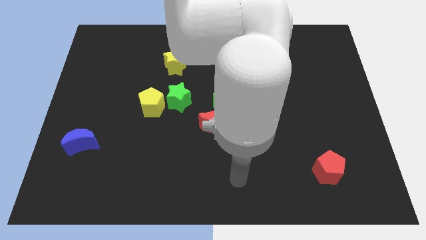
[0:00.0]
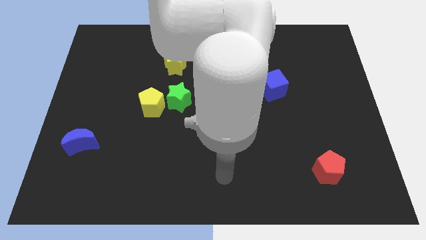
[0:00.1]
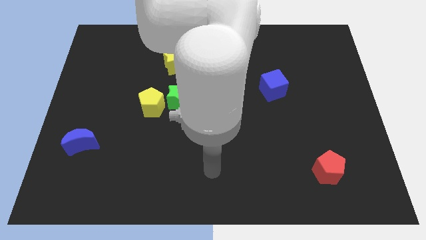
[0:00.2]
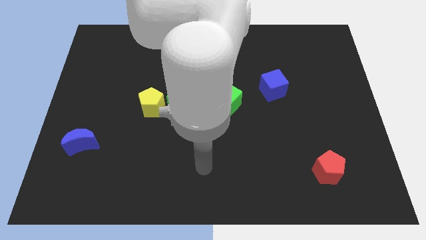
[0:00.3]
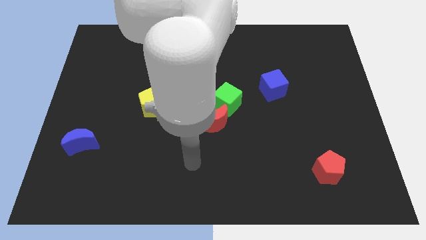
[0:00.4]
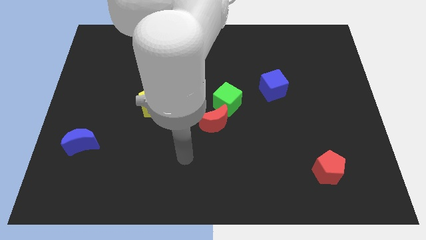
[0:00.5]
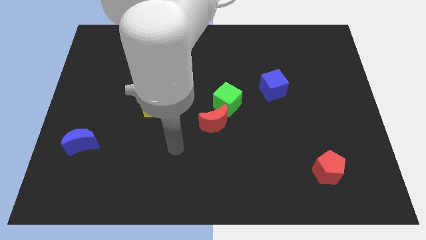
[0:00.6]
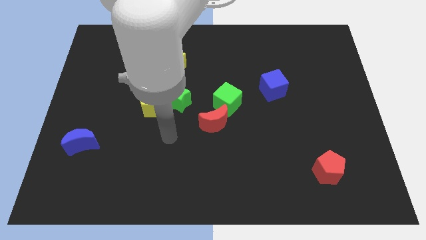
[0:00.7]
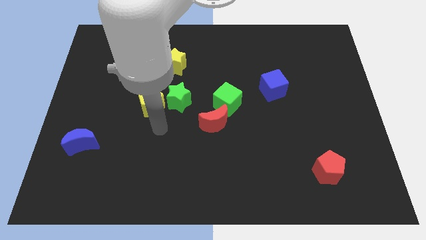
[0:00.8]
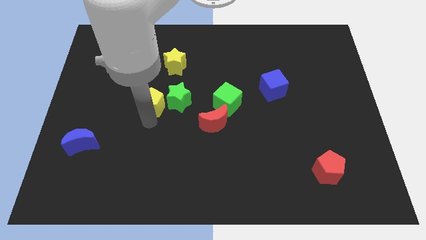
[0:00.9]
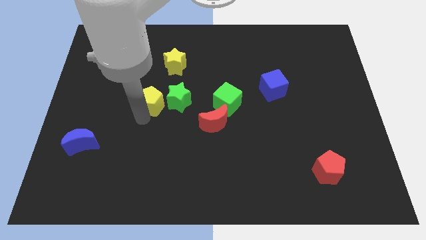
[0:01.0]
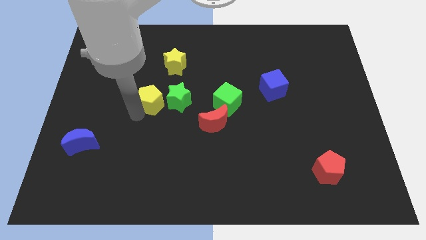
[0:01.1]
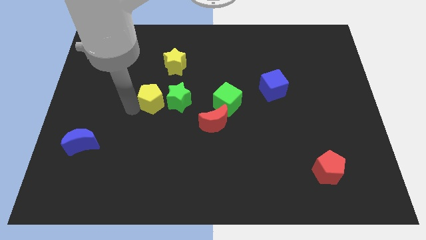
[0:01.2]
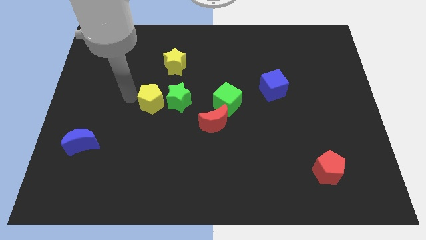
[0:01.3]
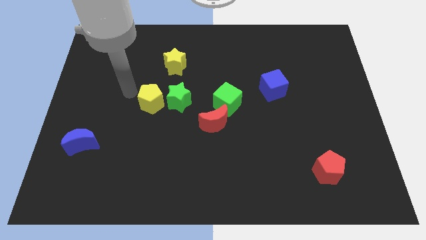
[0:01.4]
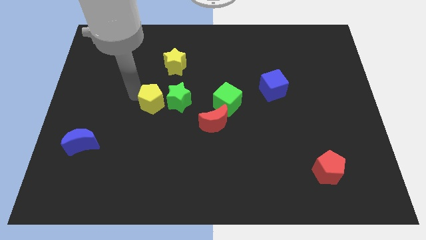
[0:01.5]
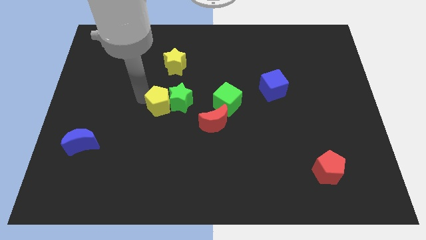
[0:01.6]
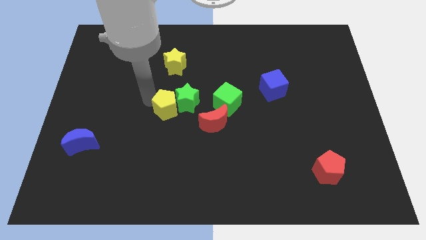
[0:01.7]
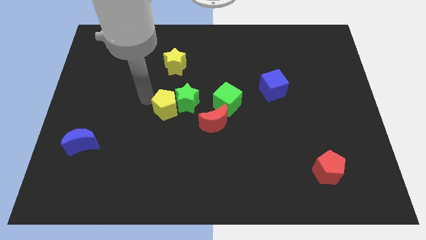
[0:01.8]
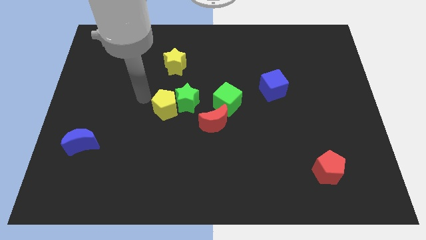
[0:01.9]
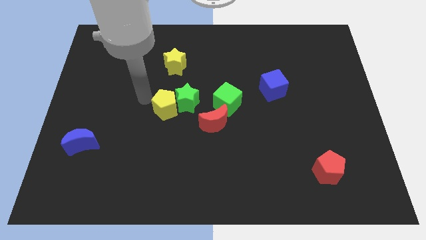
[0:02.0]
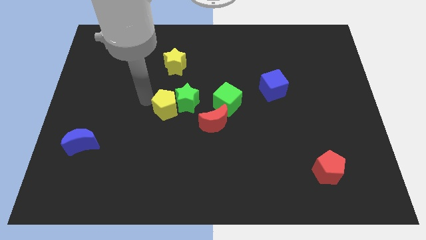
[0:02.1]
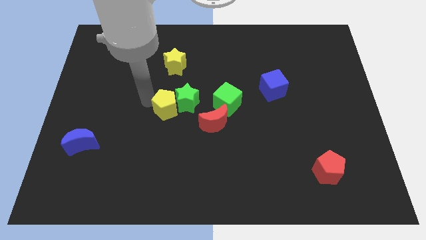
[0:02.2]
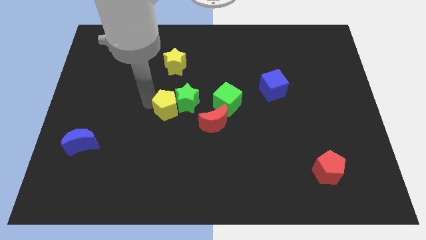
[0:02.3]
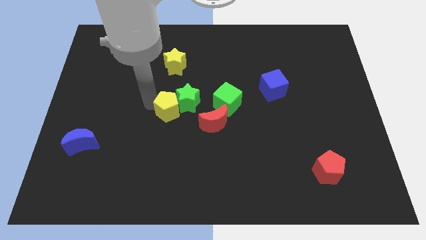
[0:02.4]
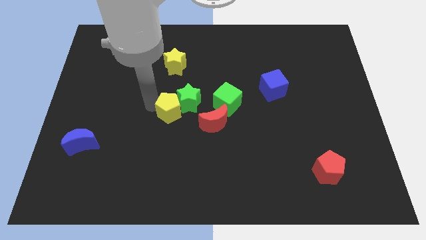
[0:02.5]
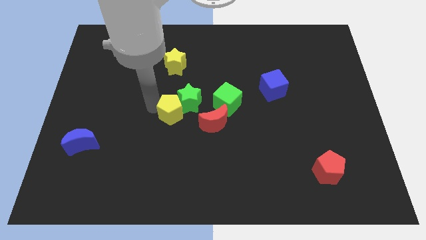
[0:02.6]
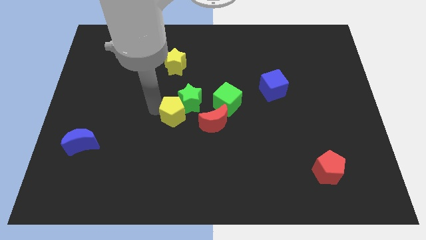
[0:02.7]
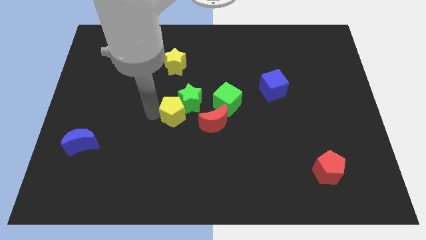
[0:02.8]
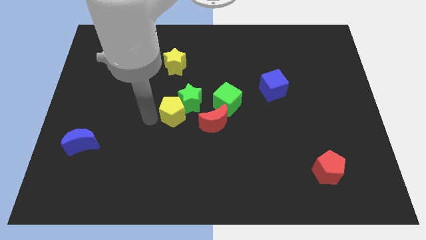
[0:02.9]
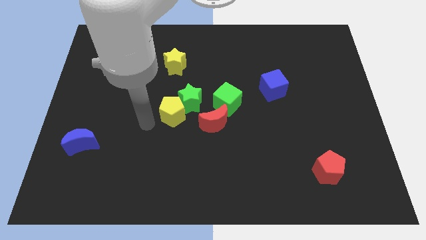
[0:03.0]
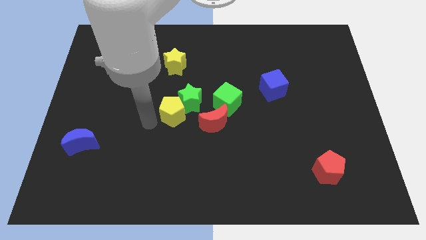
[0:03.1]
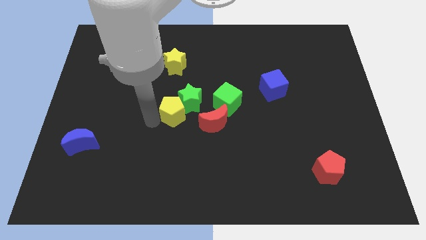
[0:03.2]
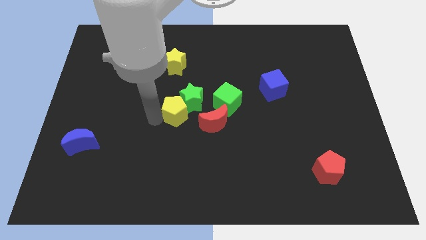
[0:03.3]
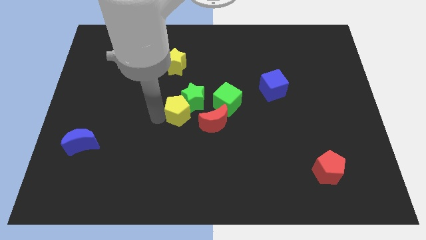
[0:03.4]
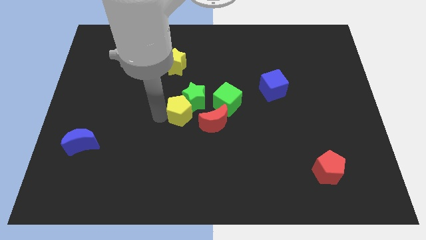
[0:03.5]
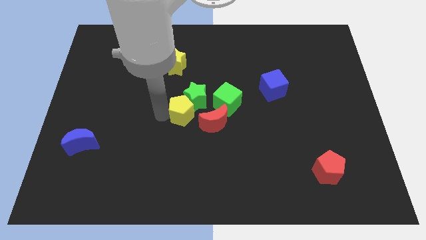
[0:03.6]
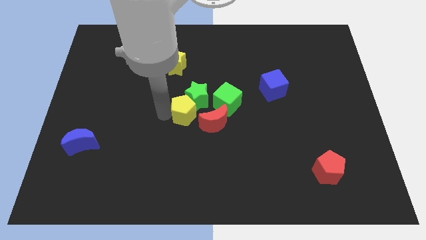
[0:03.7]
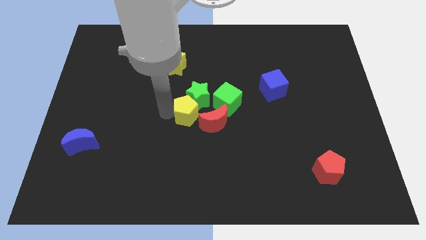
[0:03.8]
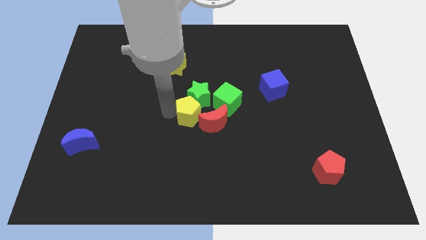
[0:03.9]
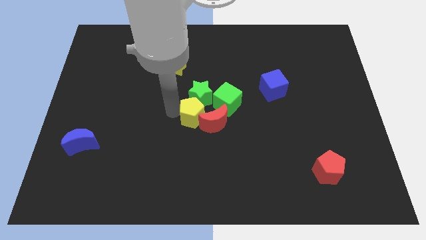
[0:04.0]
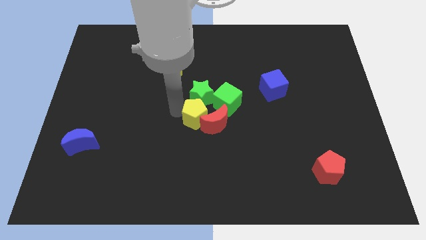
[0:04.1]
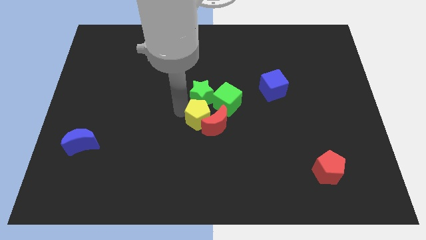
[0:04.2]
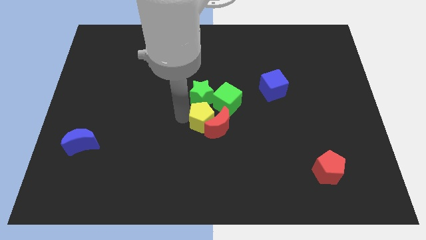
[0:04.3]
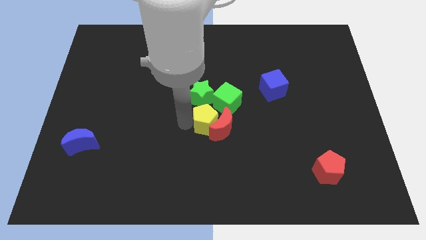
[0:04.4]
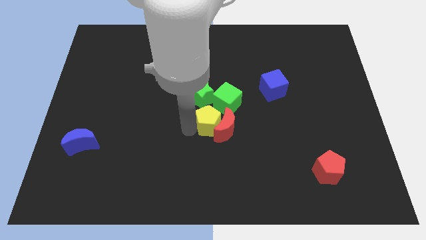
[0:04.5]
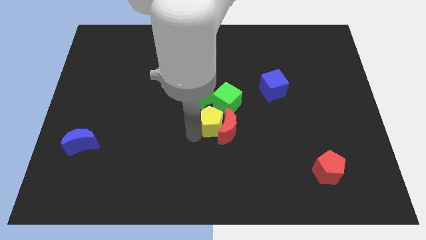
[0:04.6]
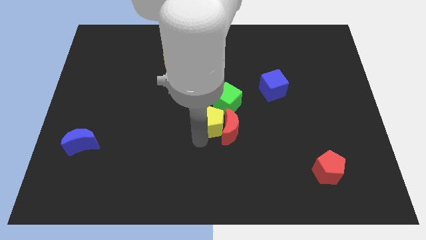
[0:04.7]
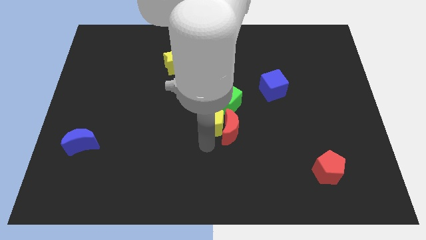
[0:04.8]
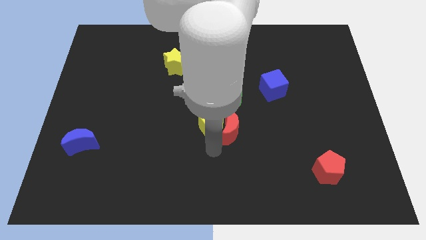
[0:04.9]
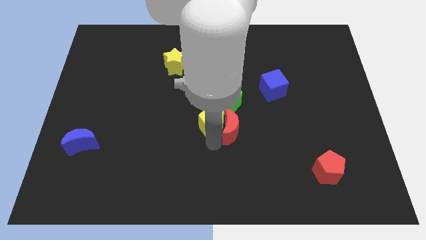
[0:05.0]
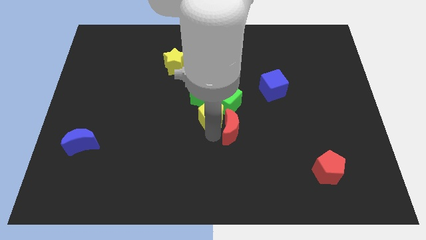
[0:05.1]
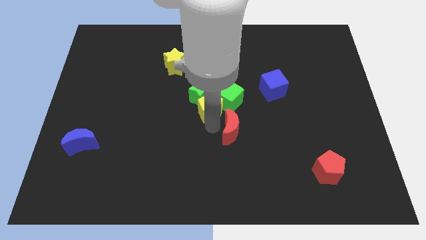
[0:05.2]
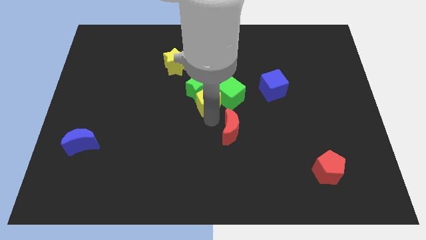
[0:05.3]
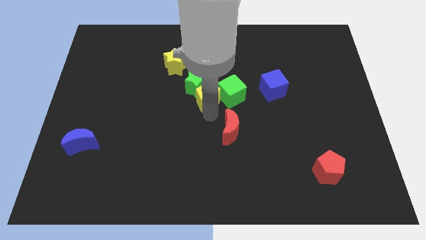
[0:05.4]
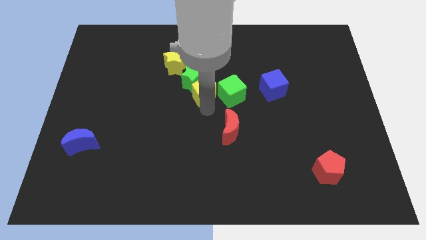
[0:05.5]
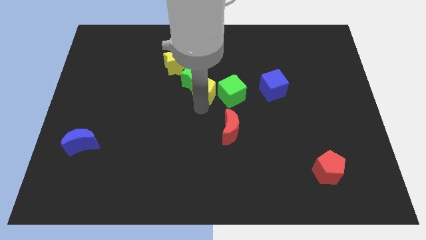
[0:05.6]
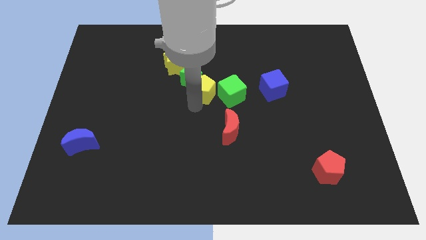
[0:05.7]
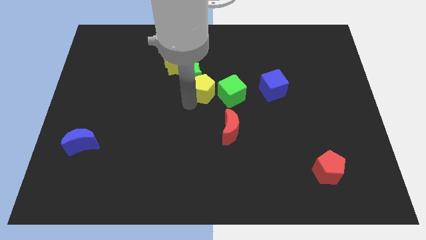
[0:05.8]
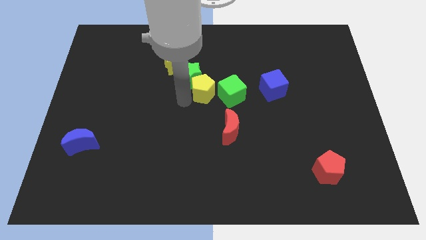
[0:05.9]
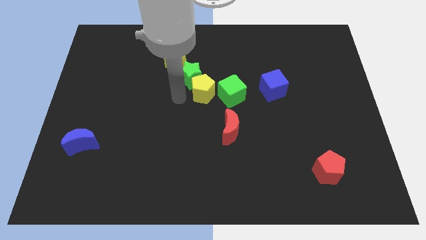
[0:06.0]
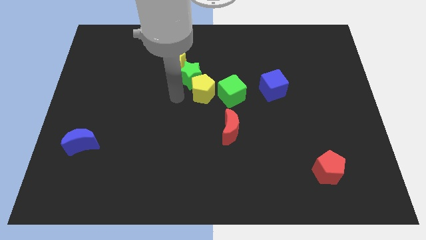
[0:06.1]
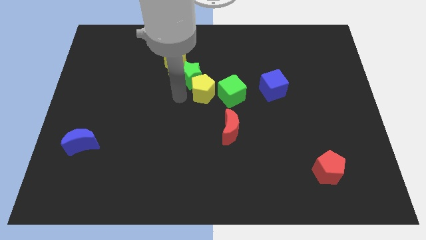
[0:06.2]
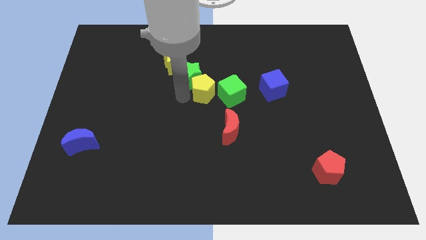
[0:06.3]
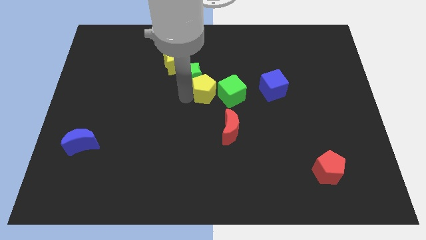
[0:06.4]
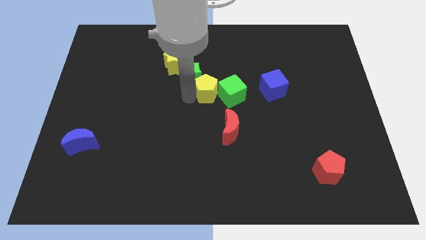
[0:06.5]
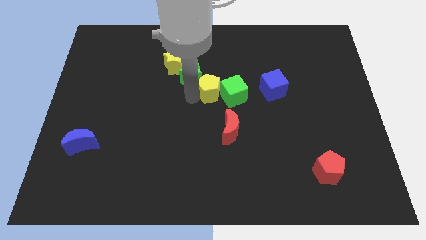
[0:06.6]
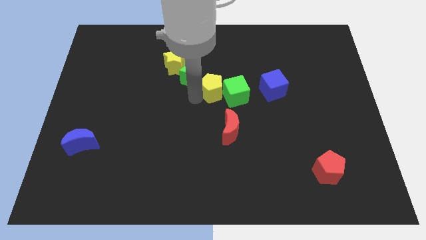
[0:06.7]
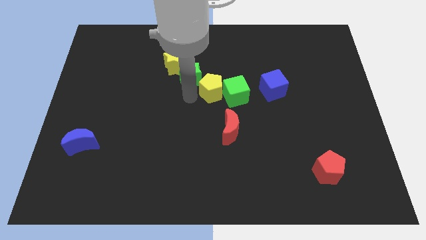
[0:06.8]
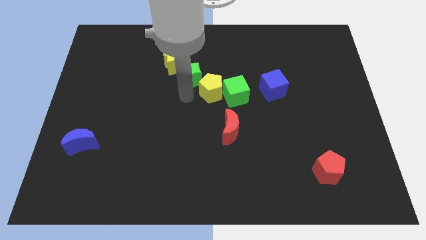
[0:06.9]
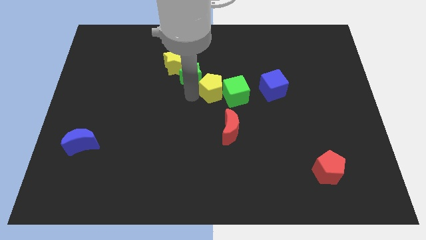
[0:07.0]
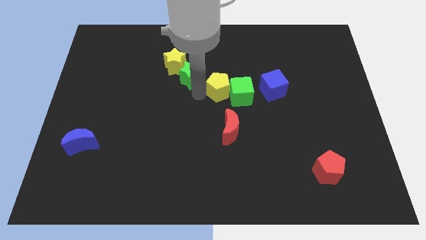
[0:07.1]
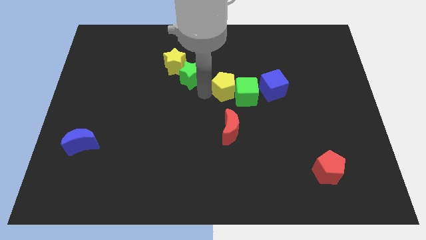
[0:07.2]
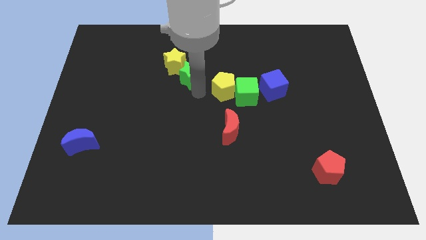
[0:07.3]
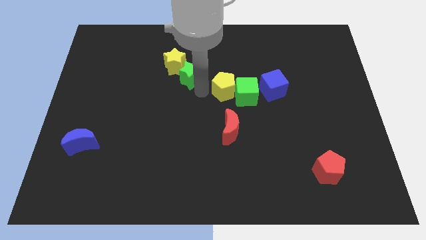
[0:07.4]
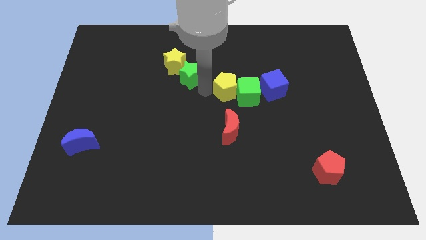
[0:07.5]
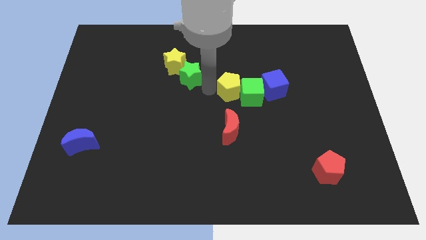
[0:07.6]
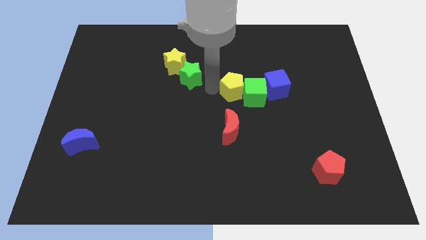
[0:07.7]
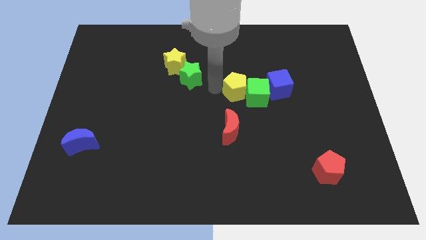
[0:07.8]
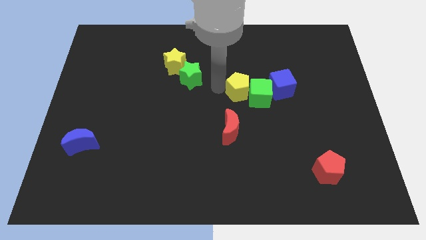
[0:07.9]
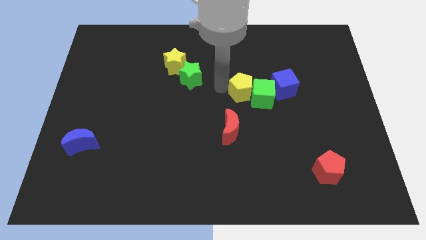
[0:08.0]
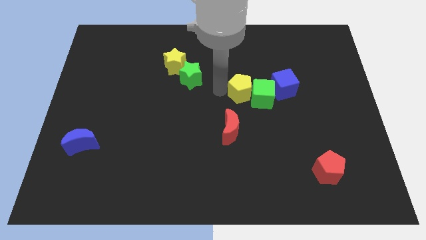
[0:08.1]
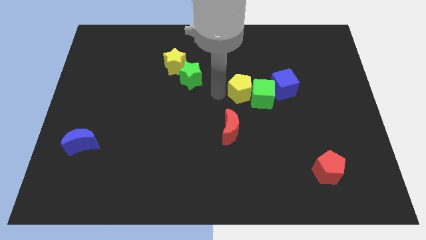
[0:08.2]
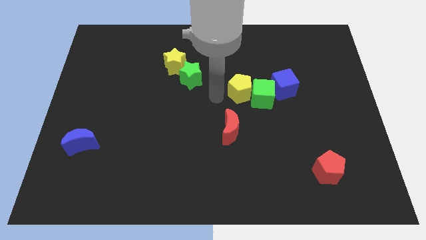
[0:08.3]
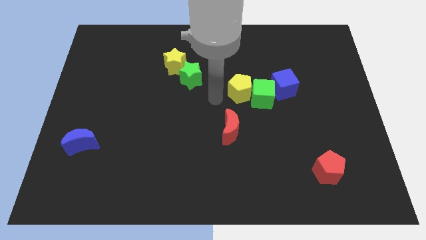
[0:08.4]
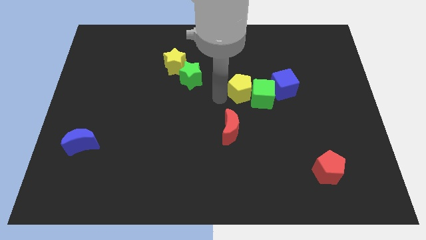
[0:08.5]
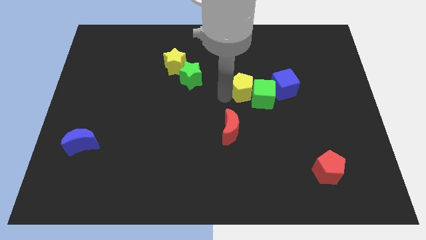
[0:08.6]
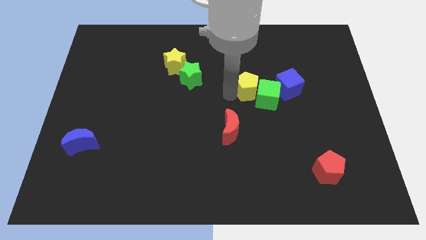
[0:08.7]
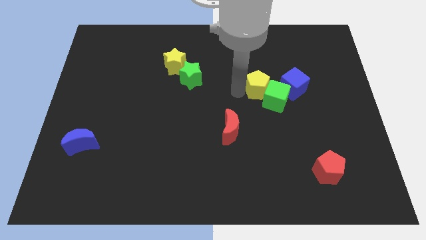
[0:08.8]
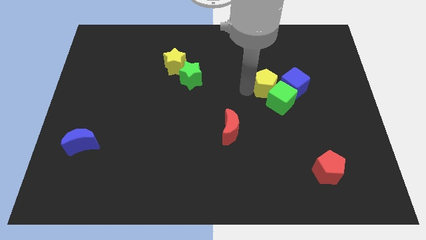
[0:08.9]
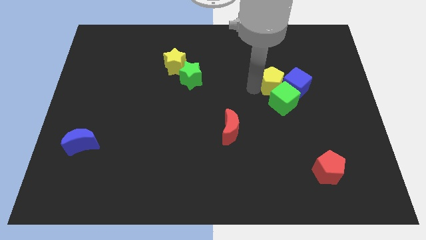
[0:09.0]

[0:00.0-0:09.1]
push the yellow pentagon next to the blue cube
